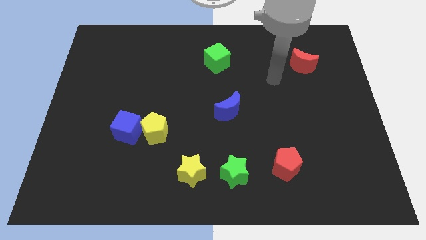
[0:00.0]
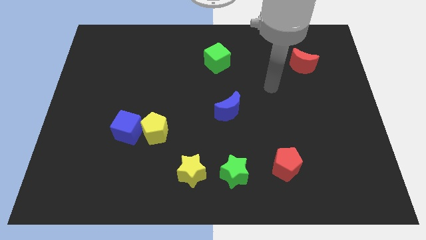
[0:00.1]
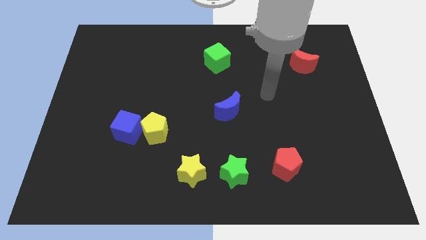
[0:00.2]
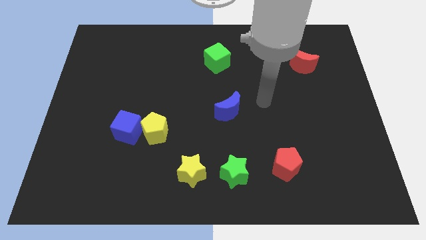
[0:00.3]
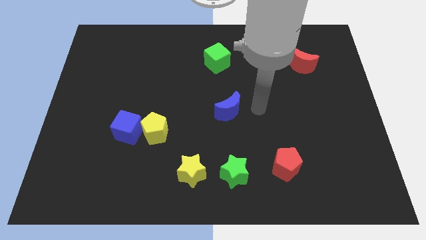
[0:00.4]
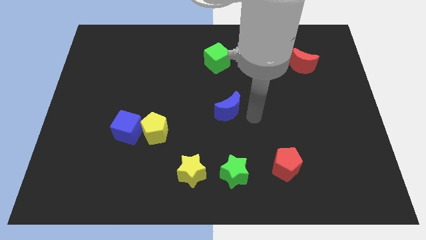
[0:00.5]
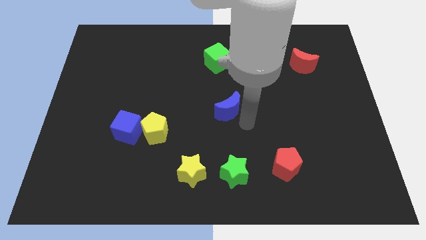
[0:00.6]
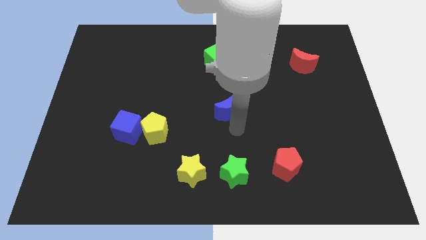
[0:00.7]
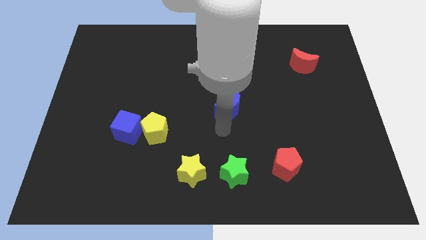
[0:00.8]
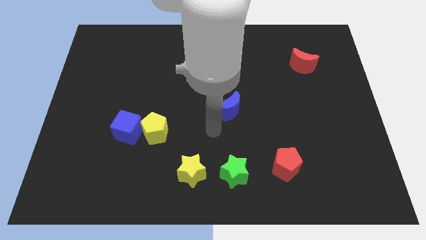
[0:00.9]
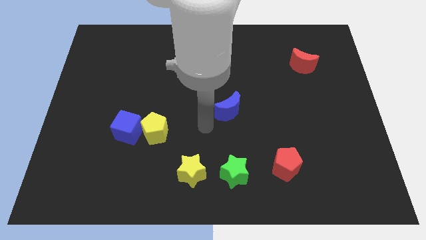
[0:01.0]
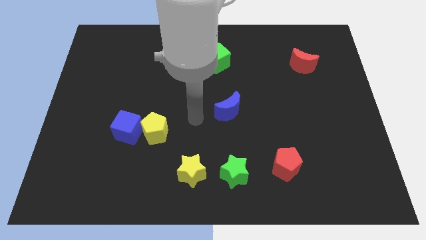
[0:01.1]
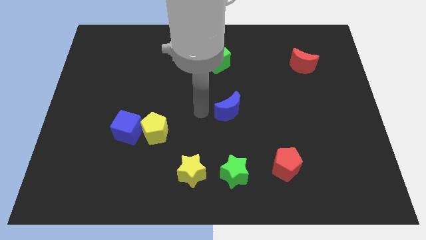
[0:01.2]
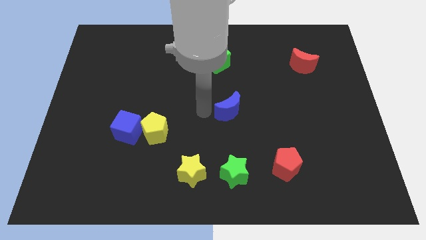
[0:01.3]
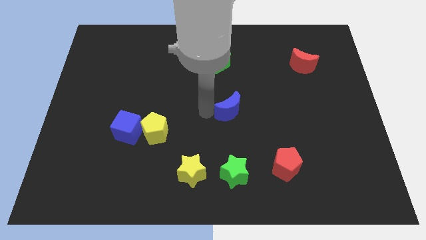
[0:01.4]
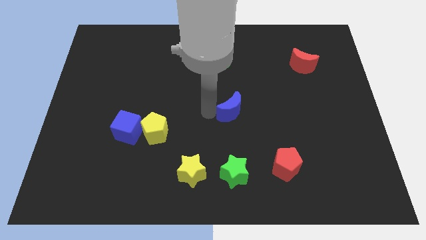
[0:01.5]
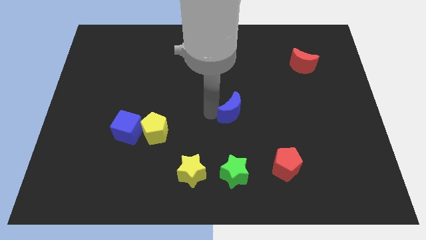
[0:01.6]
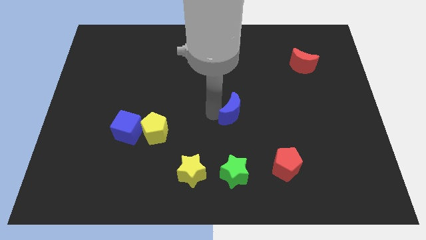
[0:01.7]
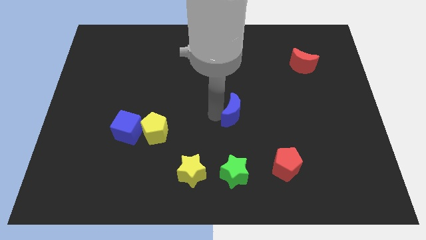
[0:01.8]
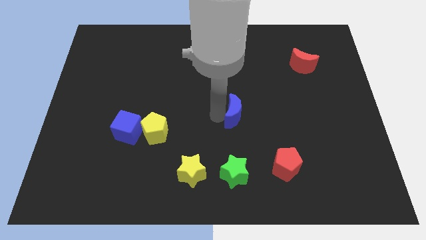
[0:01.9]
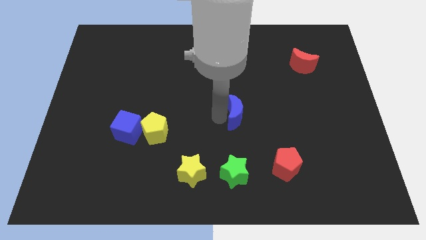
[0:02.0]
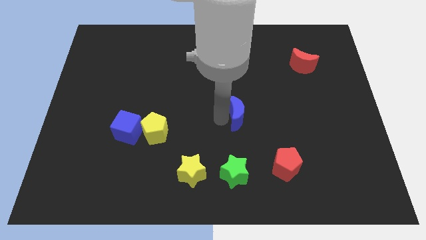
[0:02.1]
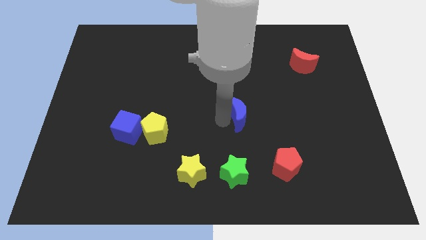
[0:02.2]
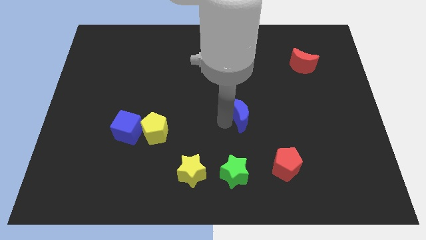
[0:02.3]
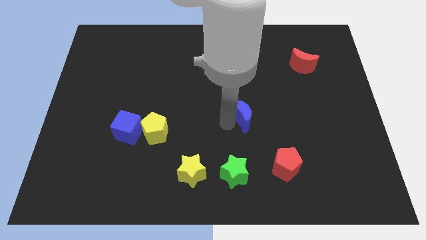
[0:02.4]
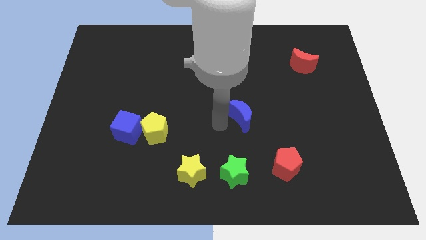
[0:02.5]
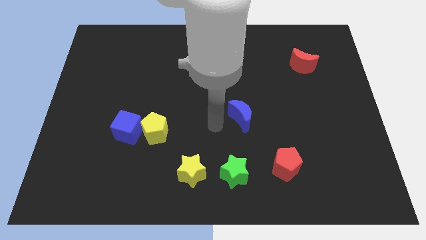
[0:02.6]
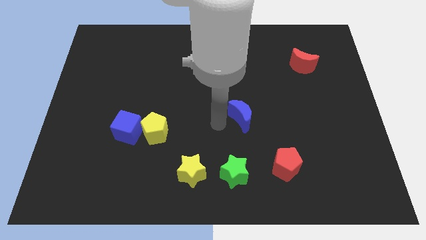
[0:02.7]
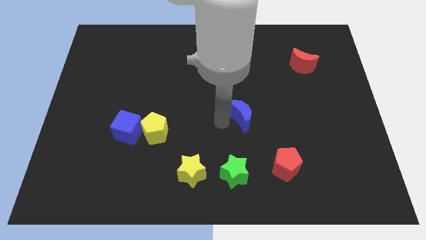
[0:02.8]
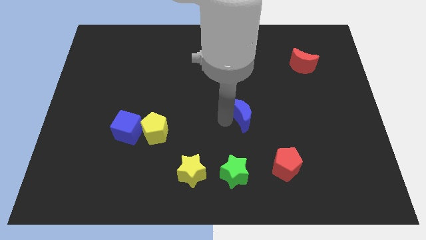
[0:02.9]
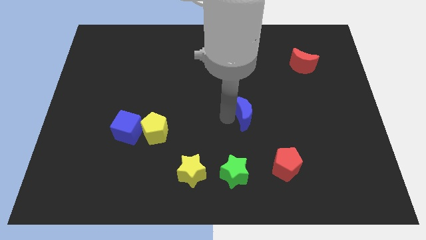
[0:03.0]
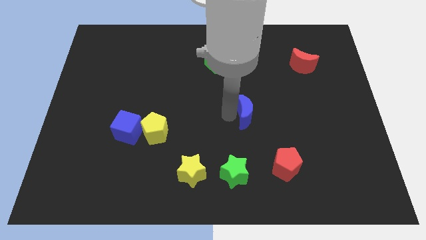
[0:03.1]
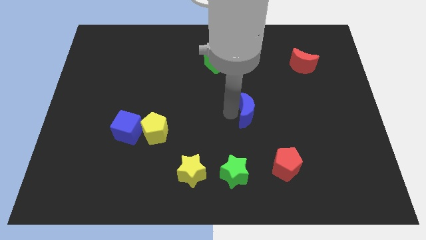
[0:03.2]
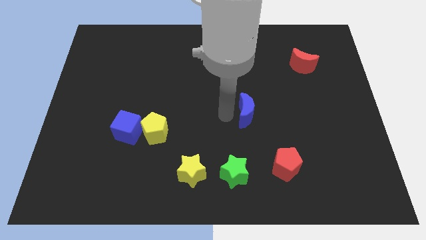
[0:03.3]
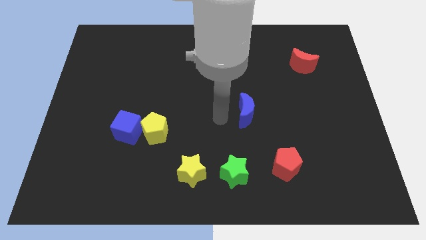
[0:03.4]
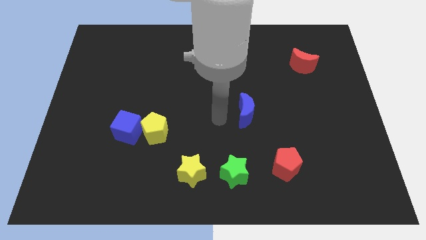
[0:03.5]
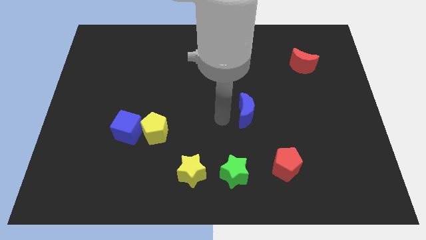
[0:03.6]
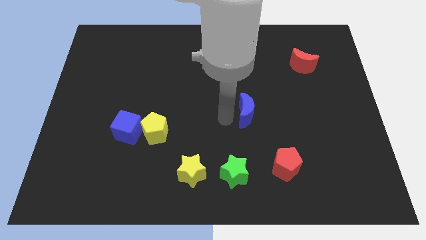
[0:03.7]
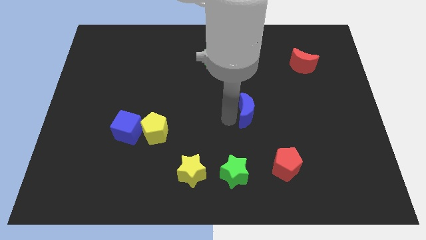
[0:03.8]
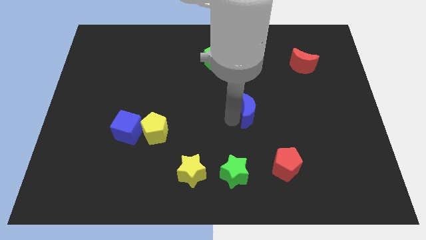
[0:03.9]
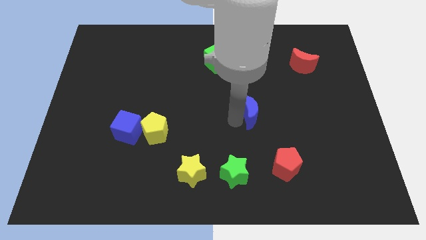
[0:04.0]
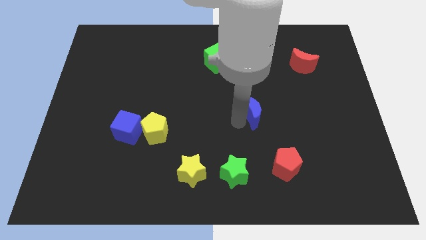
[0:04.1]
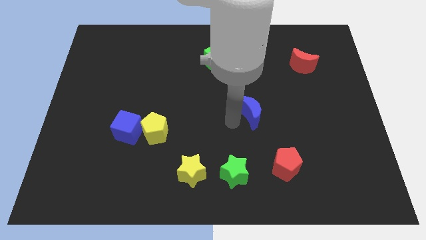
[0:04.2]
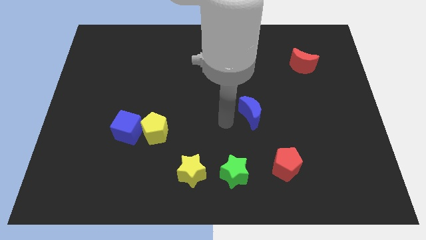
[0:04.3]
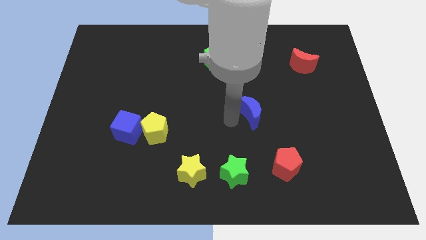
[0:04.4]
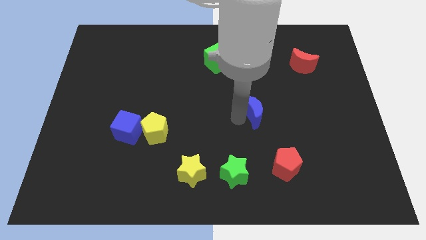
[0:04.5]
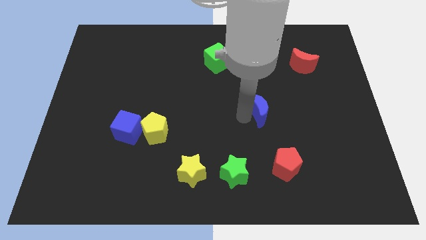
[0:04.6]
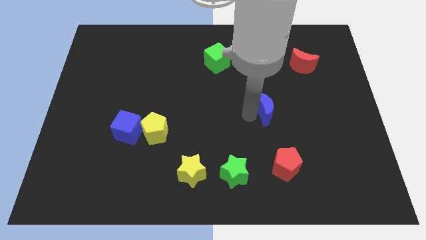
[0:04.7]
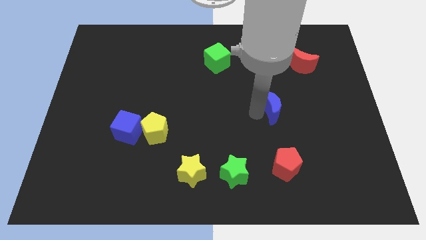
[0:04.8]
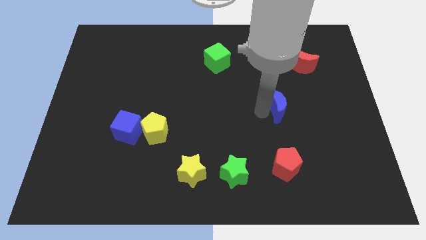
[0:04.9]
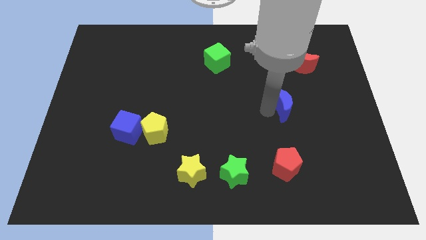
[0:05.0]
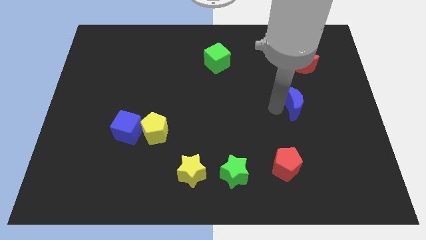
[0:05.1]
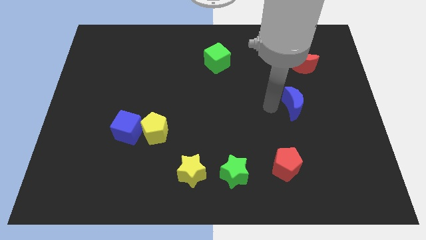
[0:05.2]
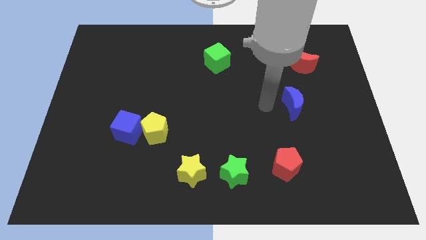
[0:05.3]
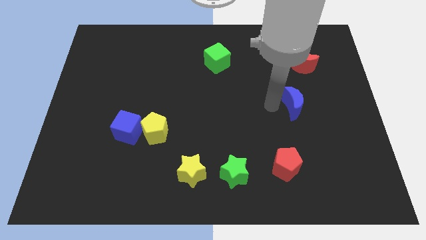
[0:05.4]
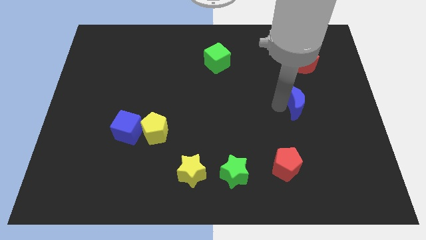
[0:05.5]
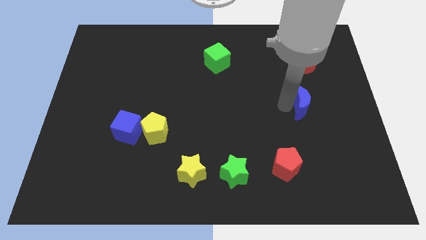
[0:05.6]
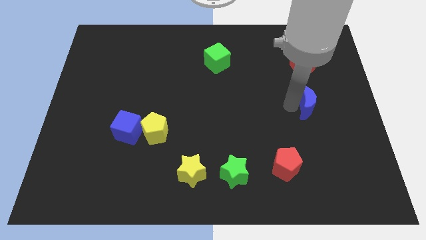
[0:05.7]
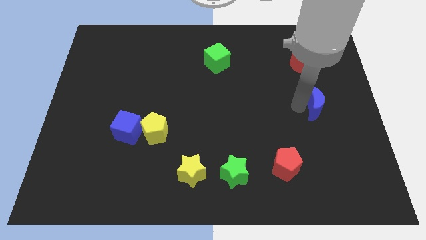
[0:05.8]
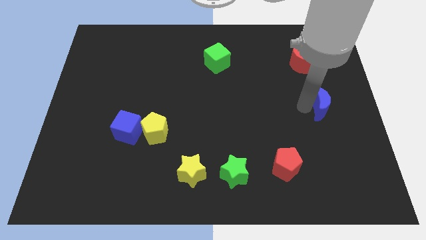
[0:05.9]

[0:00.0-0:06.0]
put the blue moon to the right side

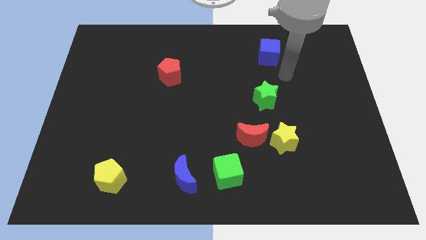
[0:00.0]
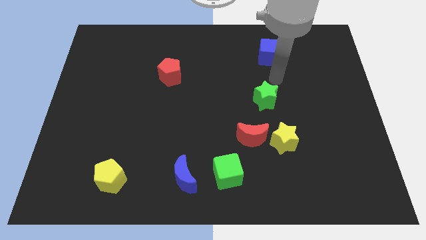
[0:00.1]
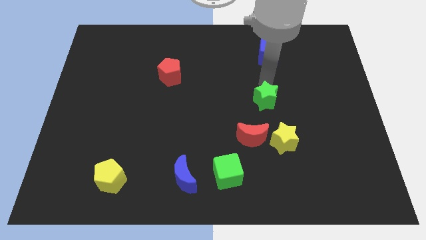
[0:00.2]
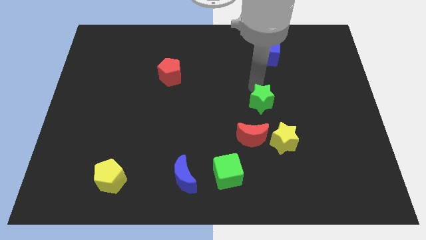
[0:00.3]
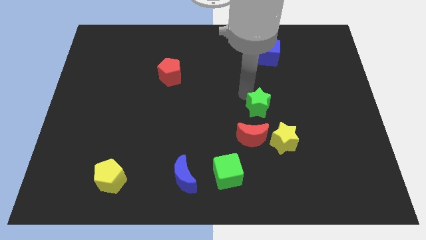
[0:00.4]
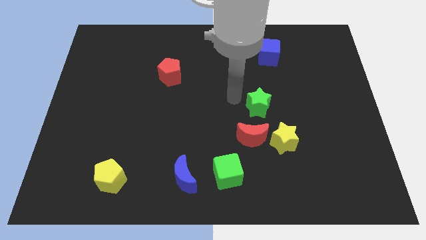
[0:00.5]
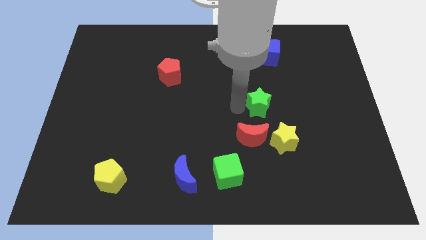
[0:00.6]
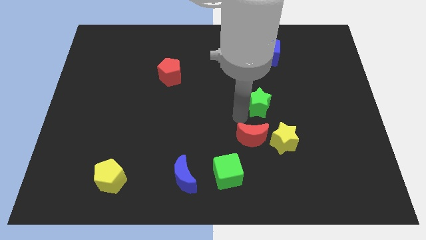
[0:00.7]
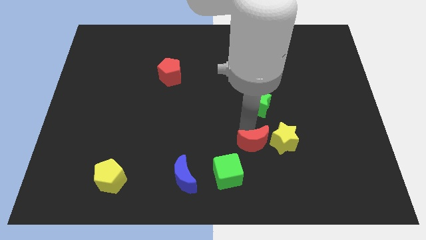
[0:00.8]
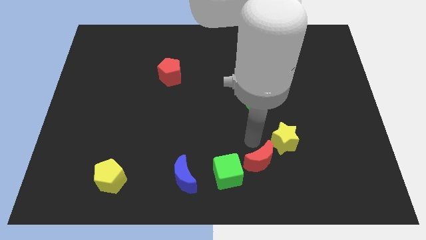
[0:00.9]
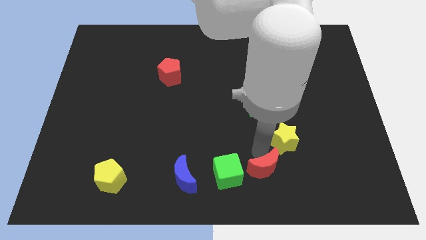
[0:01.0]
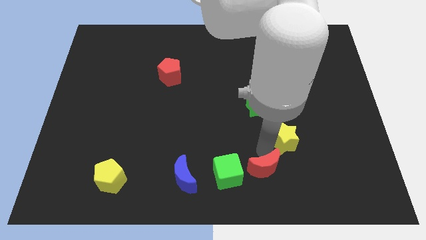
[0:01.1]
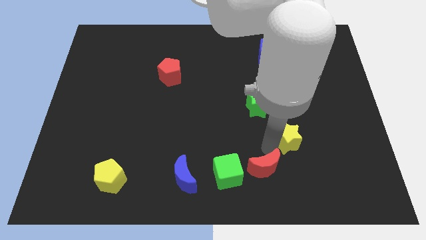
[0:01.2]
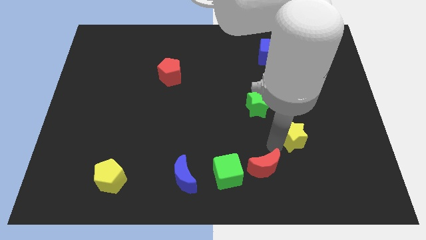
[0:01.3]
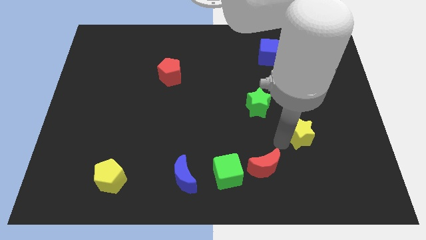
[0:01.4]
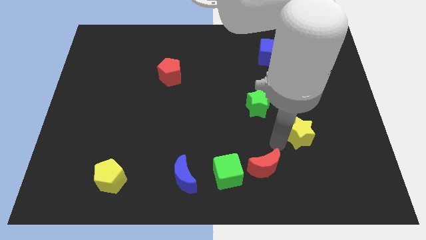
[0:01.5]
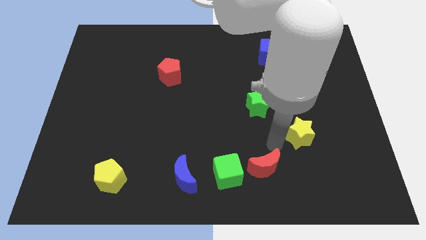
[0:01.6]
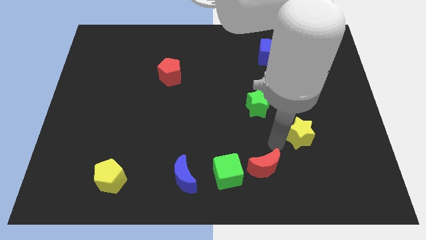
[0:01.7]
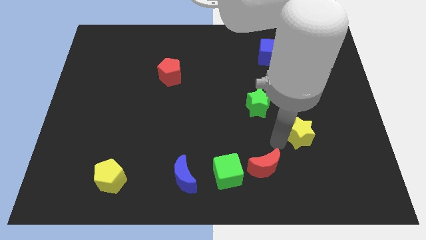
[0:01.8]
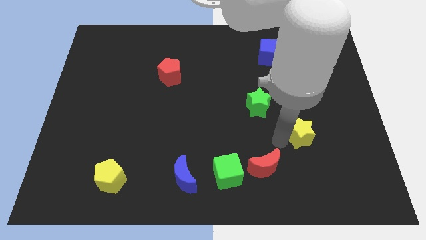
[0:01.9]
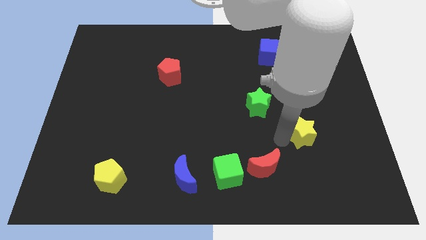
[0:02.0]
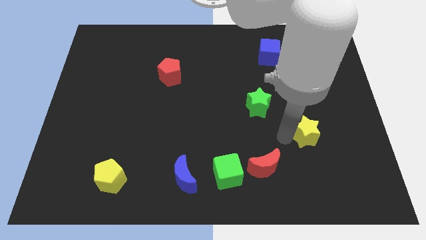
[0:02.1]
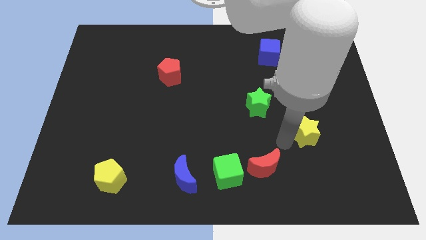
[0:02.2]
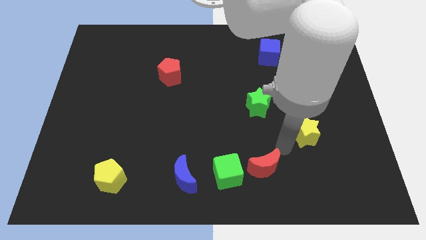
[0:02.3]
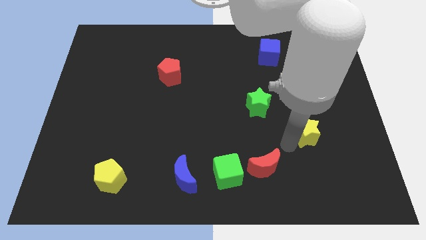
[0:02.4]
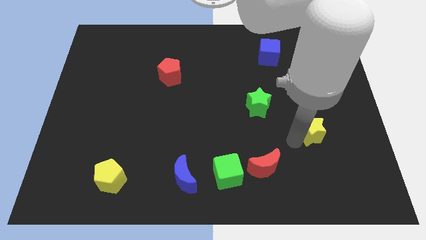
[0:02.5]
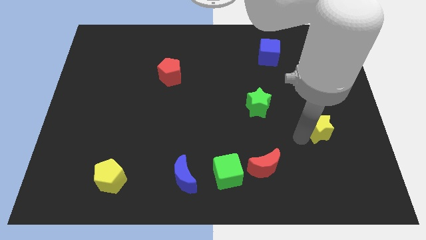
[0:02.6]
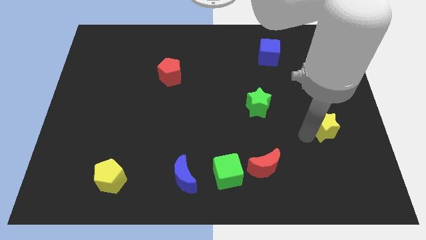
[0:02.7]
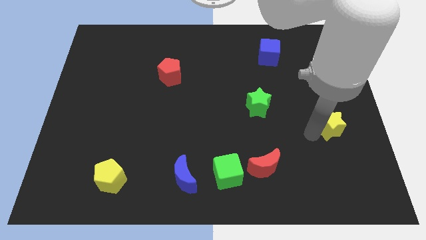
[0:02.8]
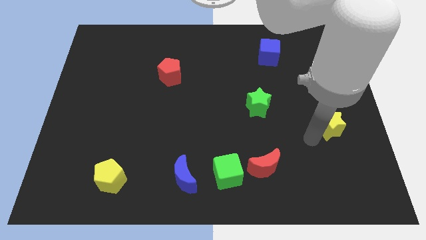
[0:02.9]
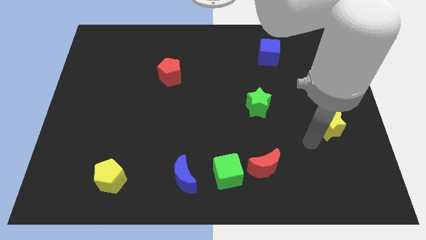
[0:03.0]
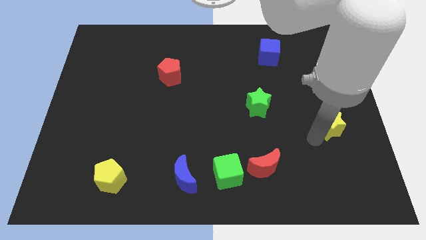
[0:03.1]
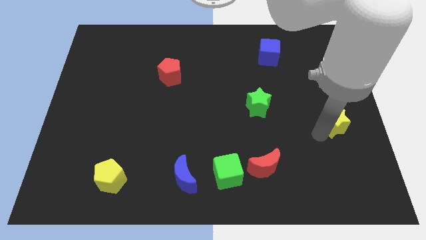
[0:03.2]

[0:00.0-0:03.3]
push the yellow star to the right side
